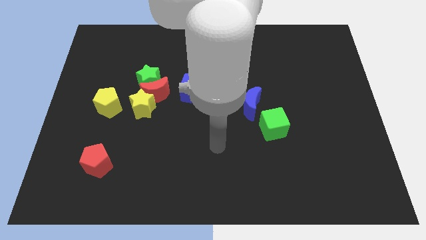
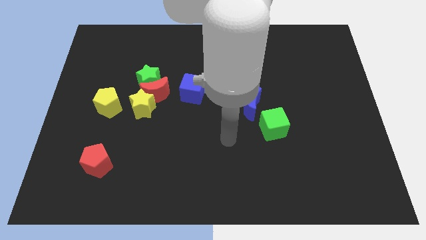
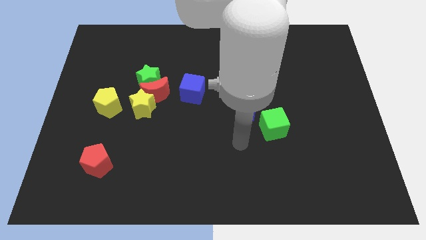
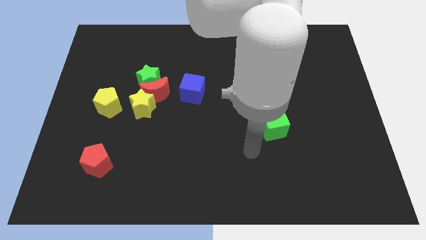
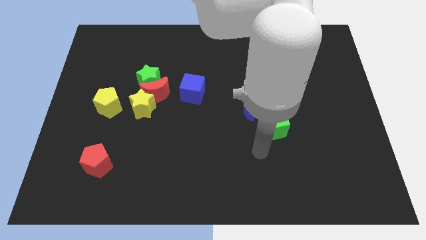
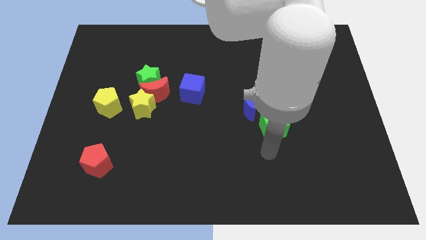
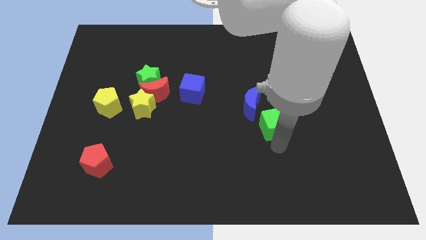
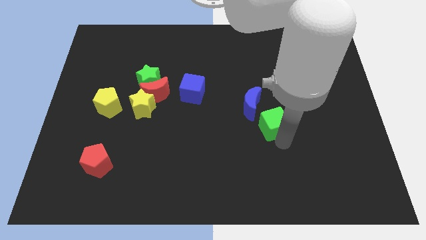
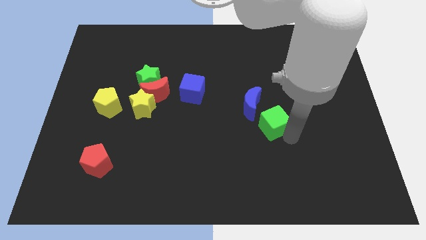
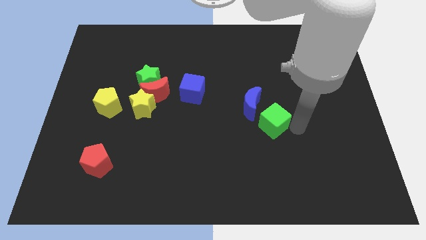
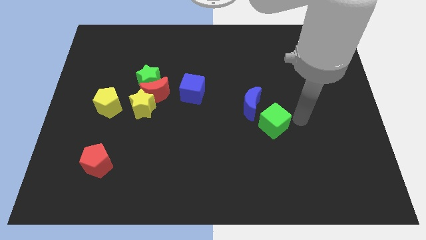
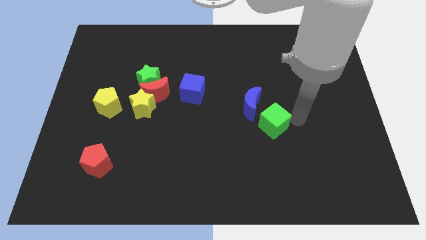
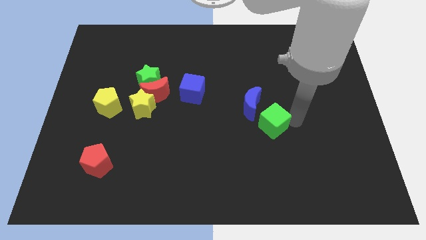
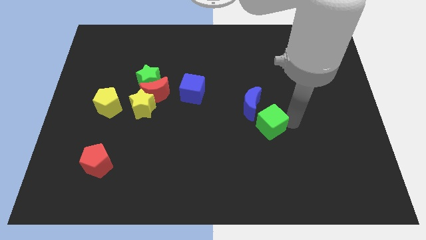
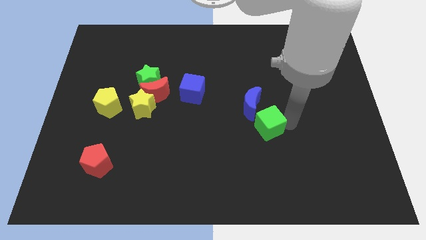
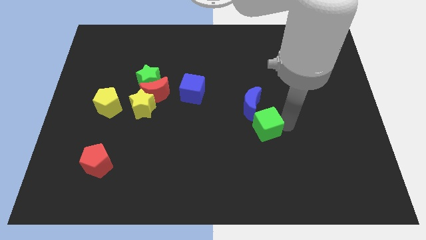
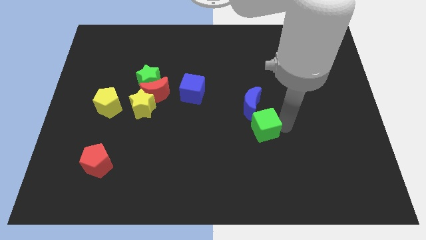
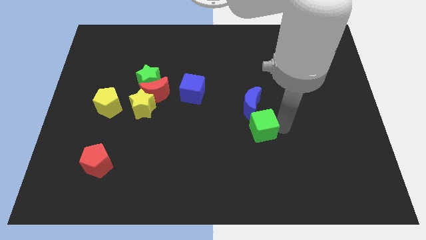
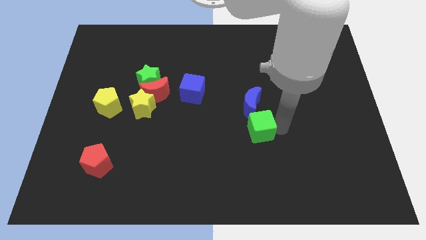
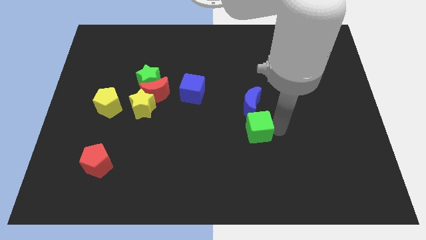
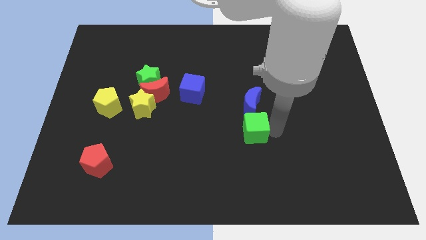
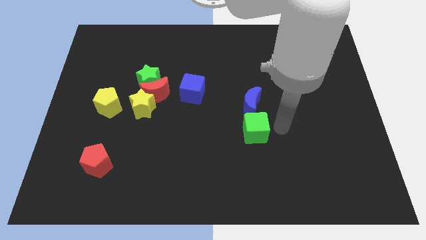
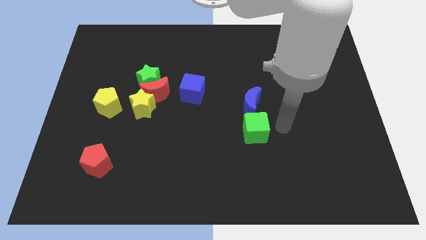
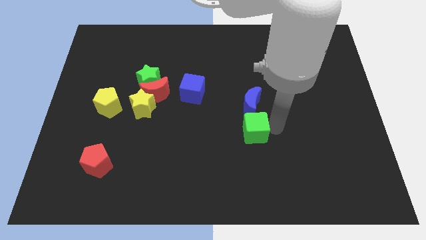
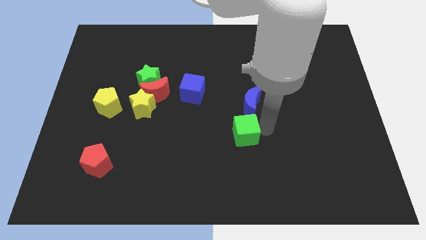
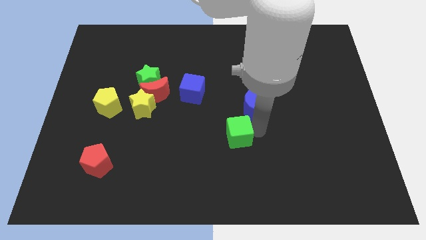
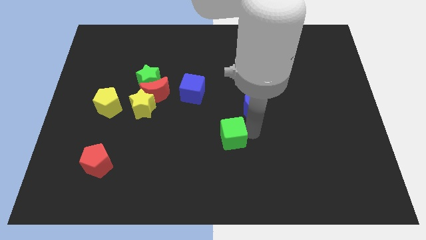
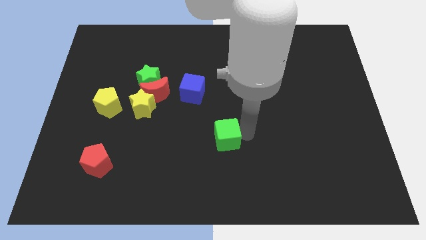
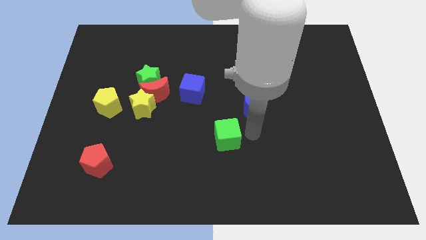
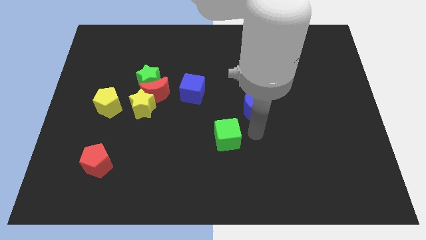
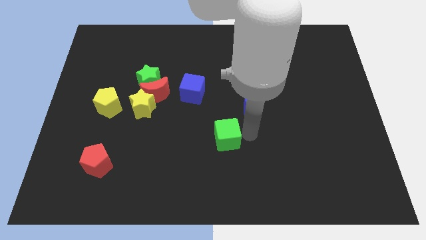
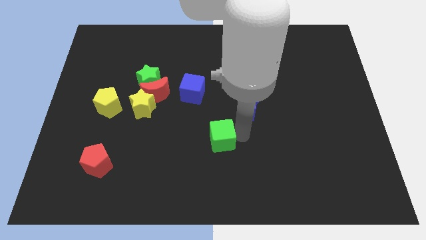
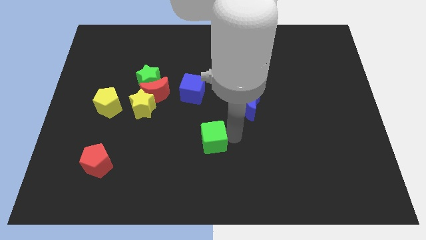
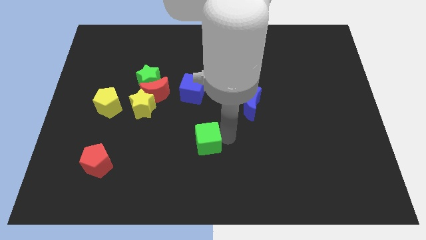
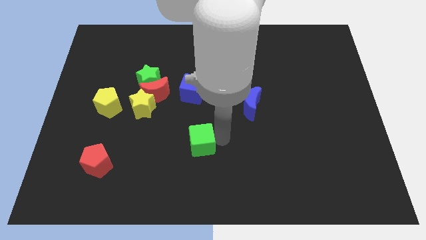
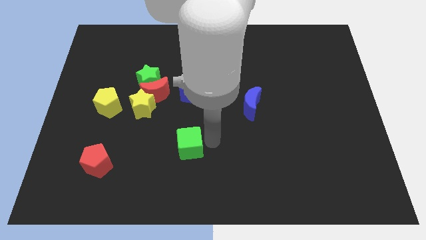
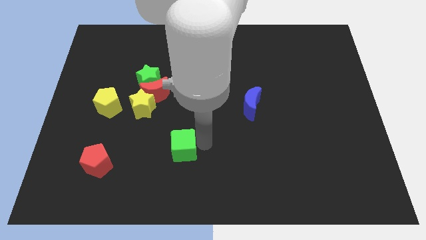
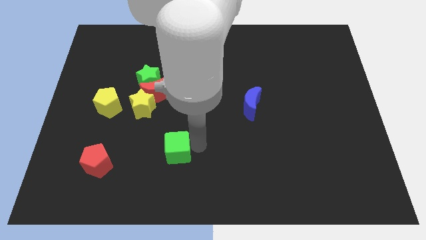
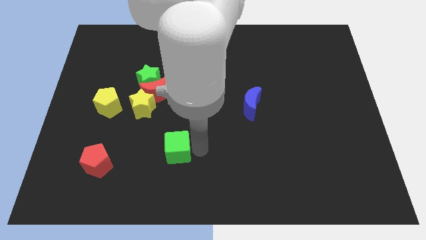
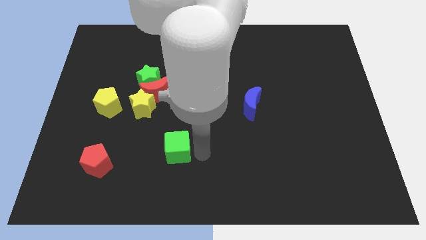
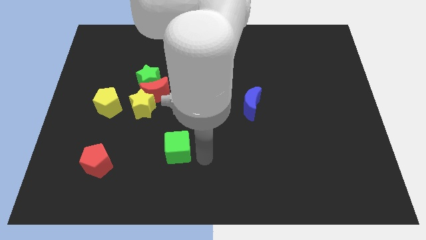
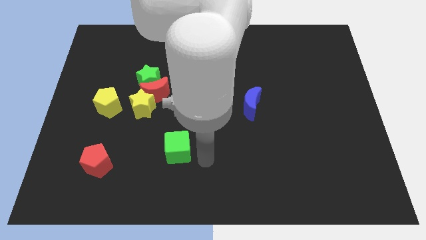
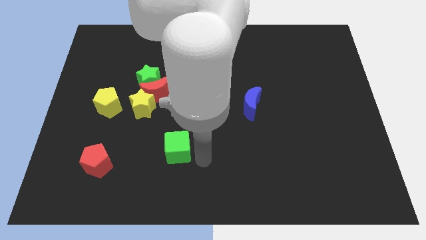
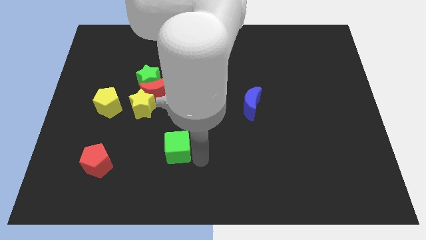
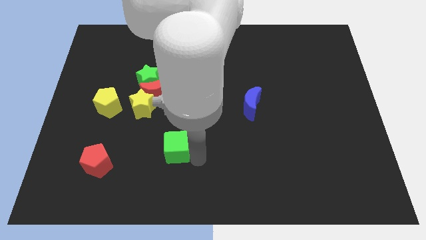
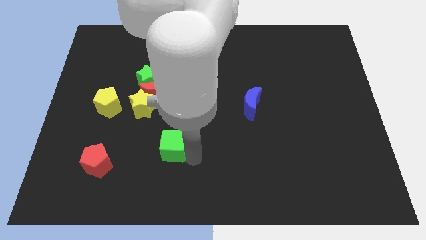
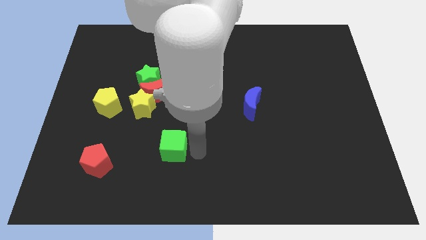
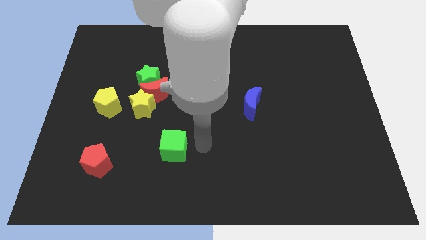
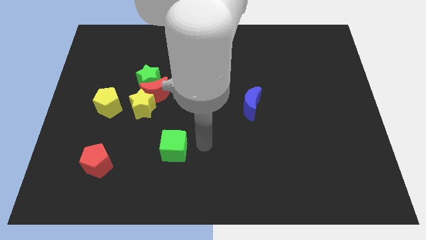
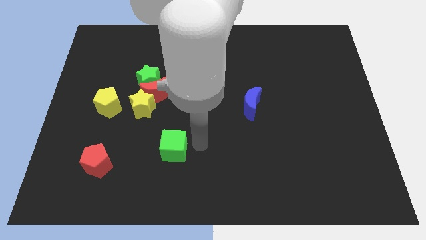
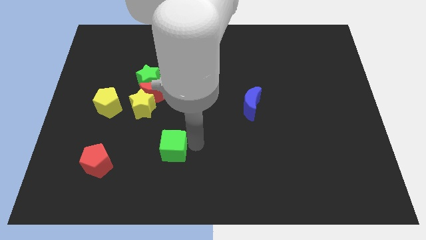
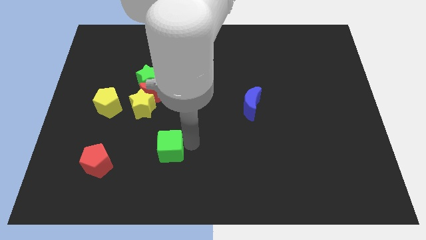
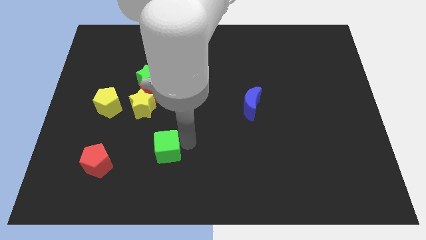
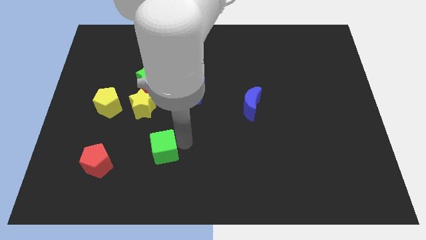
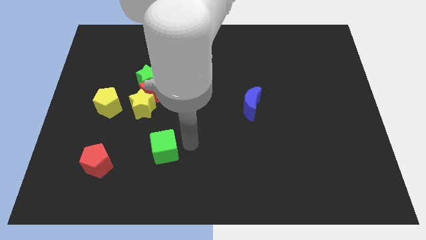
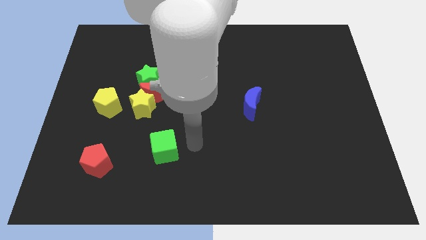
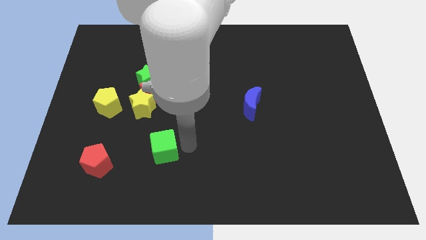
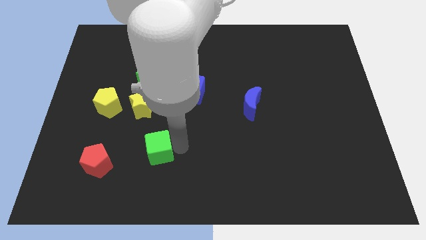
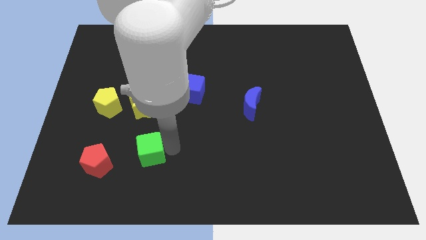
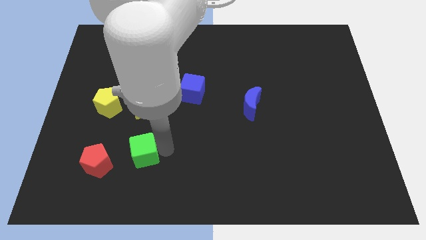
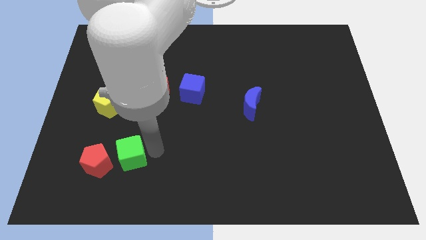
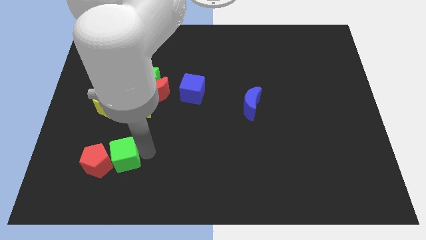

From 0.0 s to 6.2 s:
push the green cube next to the red pentagon

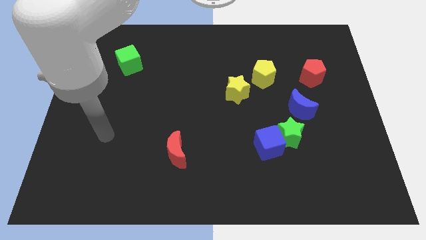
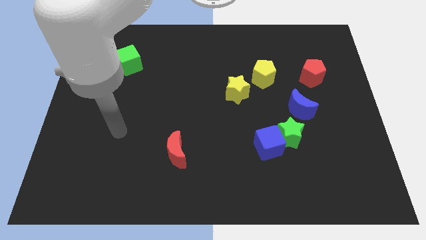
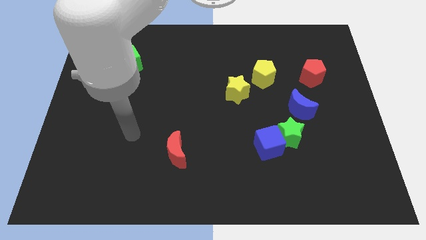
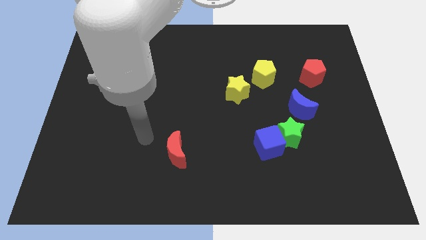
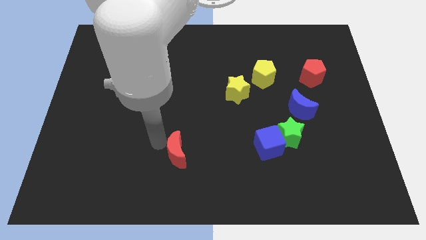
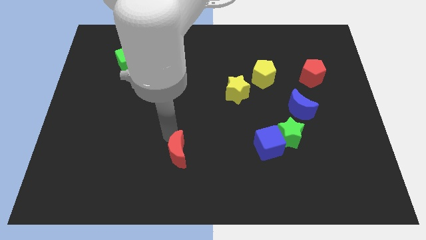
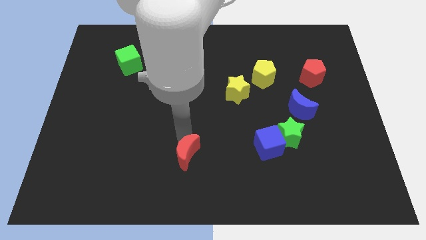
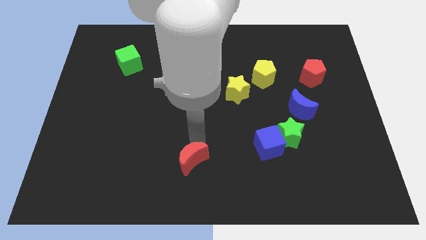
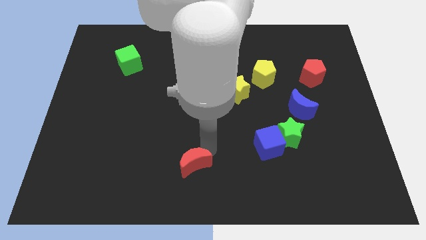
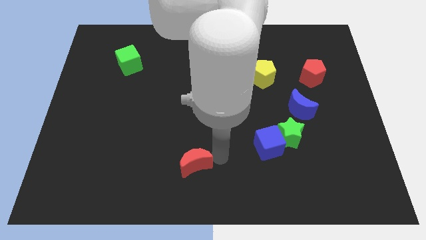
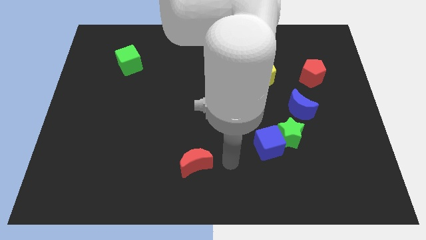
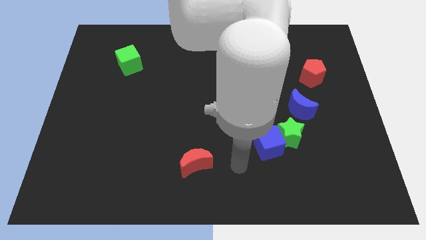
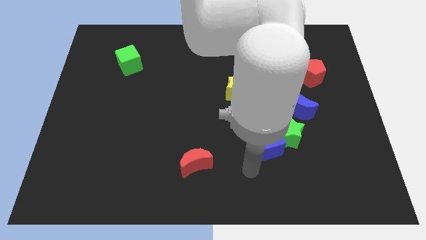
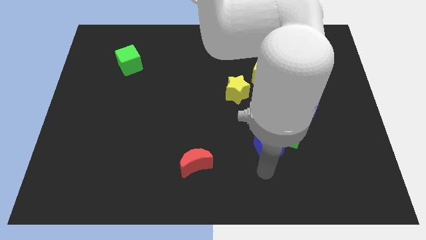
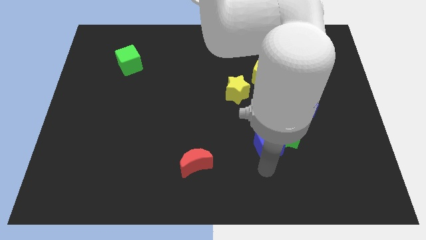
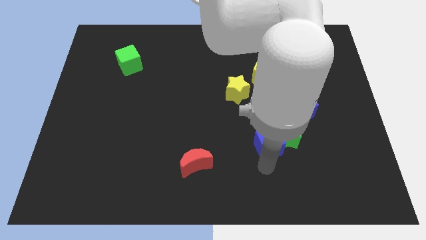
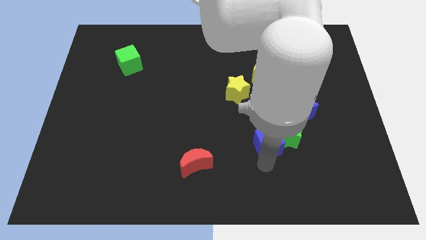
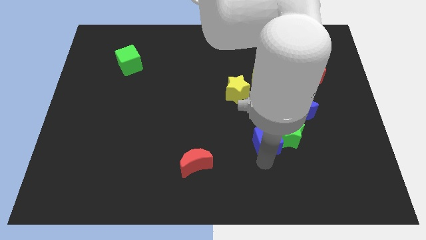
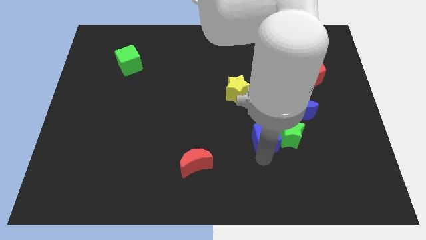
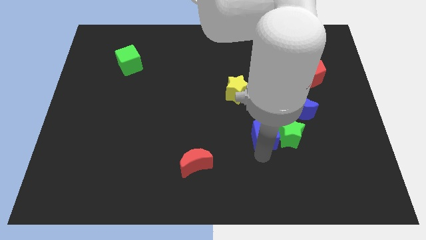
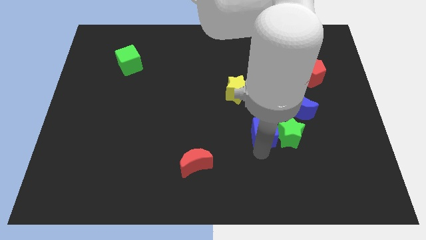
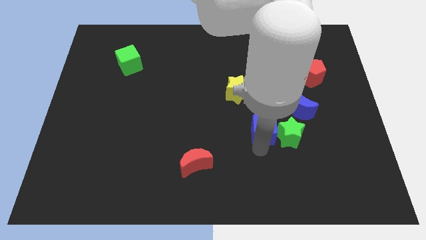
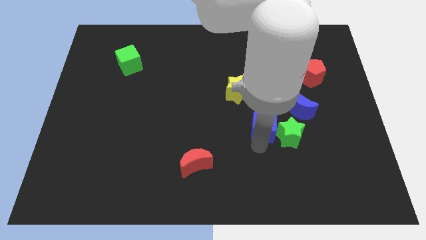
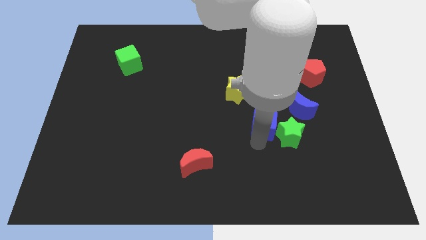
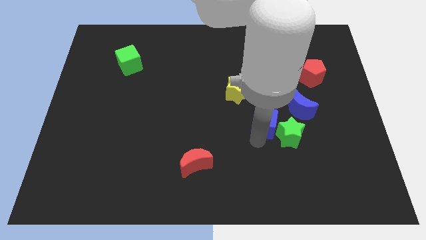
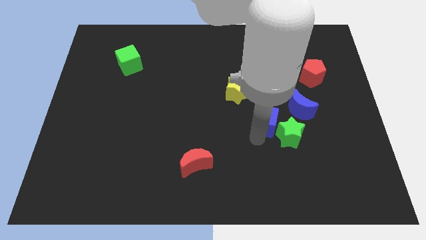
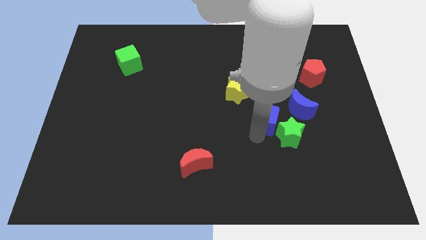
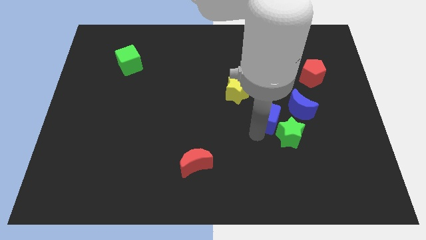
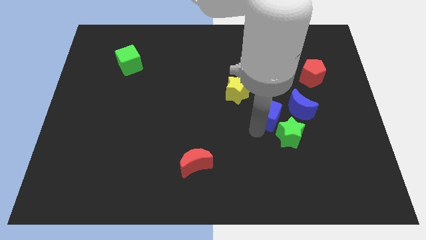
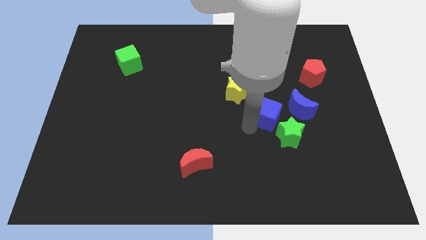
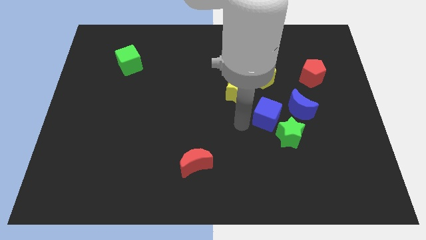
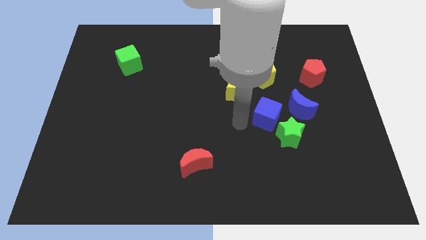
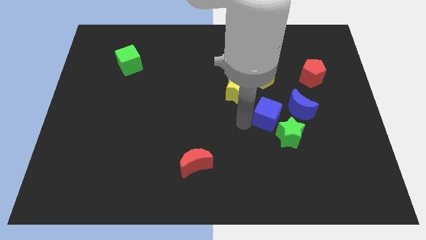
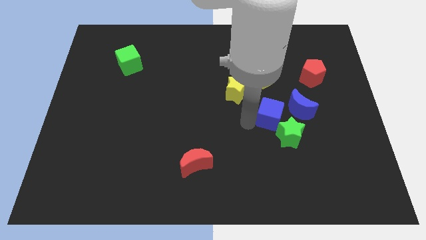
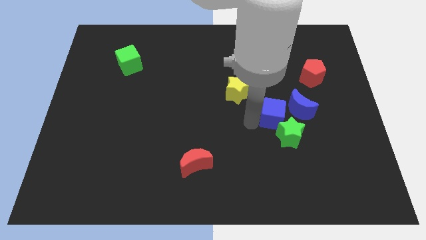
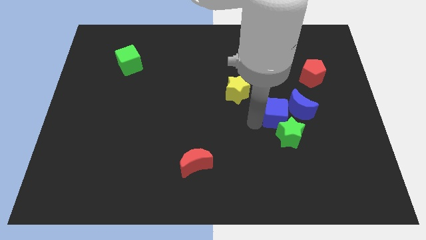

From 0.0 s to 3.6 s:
slide the blue cube close to the blue moon
